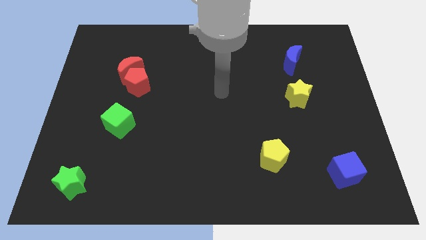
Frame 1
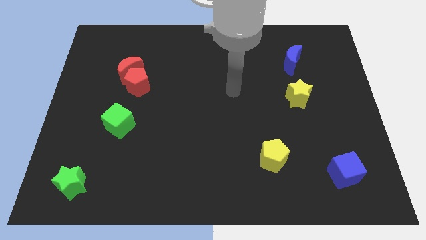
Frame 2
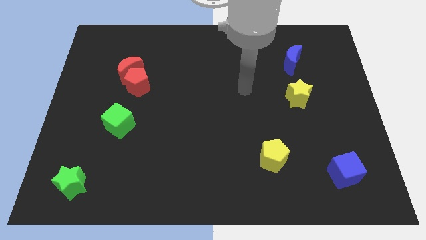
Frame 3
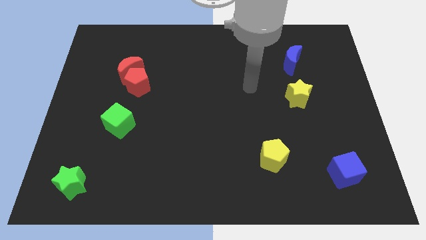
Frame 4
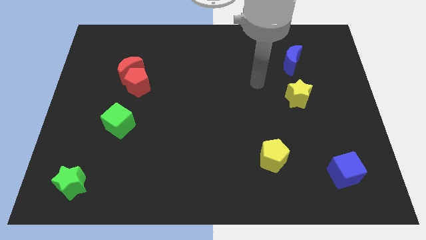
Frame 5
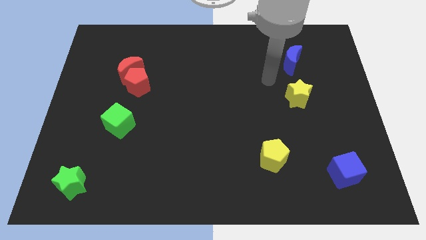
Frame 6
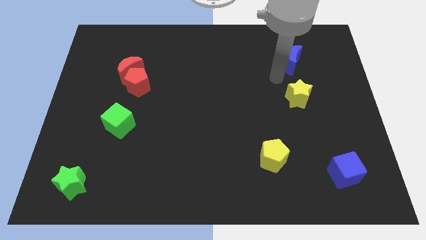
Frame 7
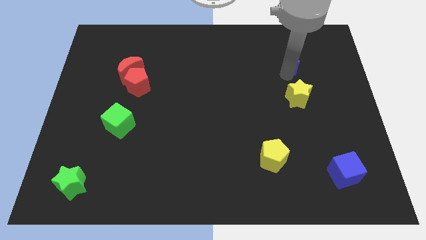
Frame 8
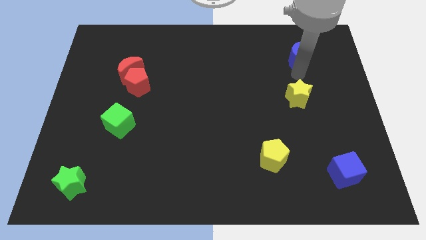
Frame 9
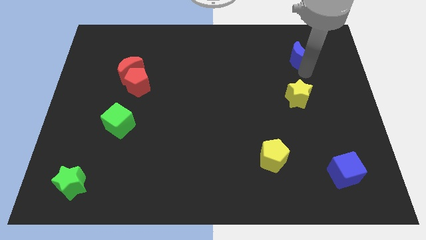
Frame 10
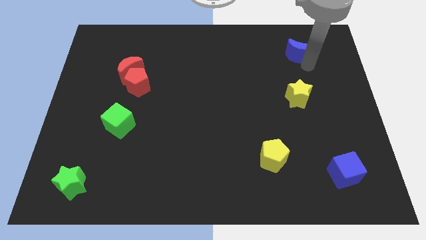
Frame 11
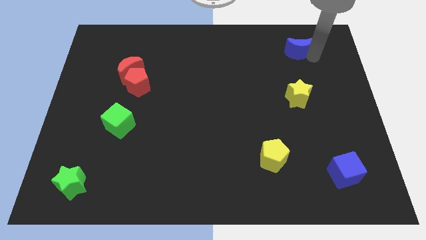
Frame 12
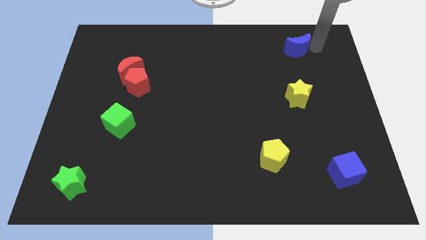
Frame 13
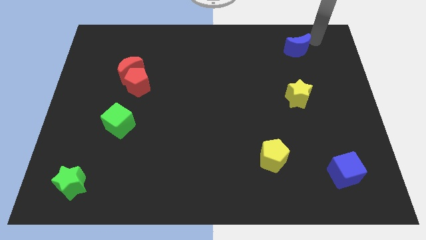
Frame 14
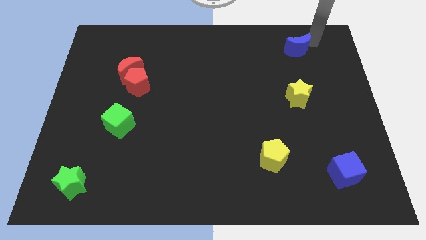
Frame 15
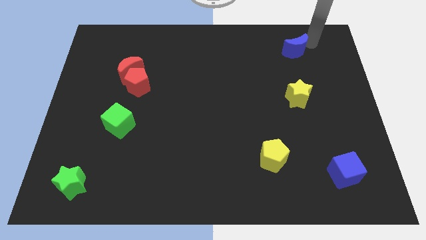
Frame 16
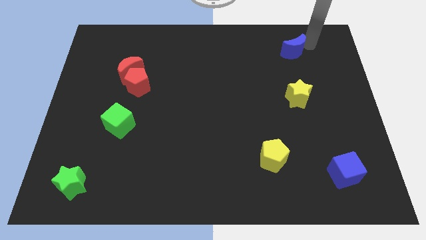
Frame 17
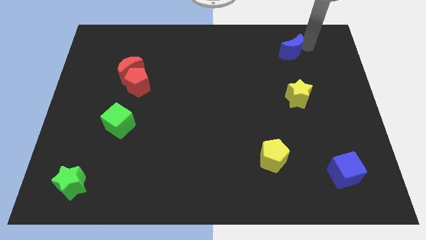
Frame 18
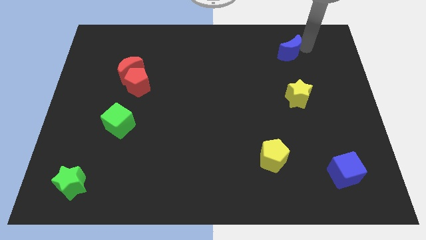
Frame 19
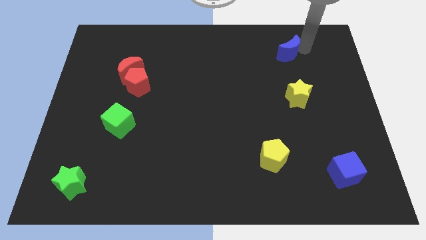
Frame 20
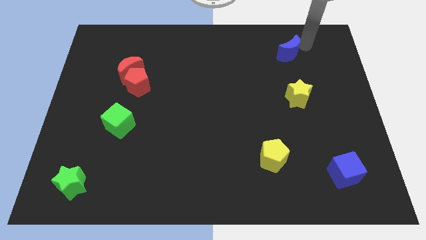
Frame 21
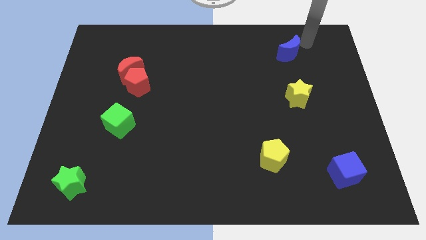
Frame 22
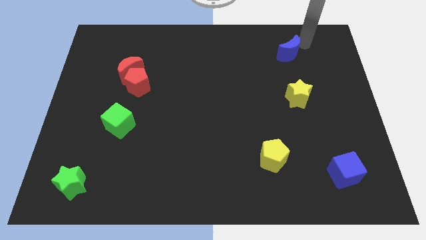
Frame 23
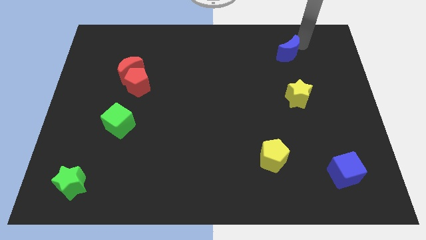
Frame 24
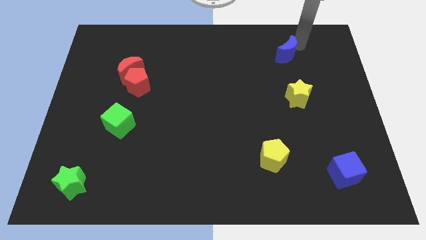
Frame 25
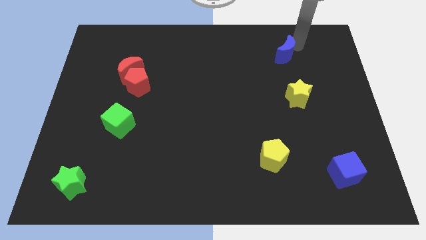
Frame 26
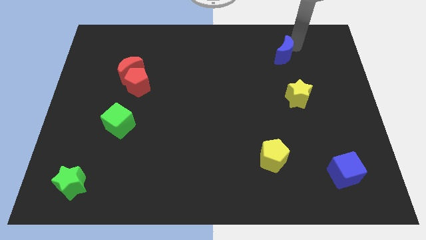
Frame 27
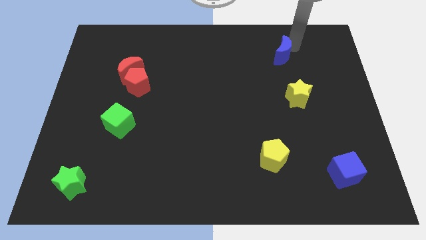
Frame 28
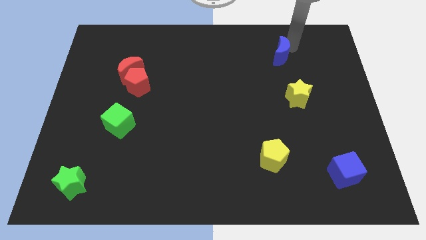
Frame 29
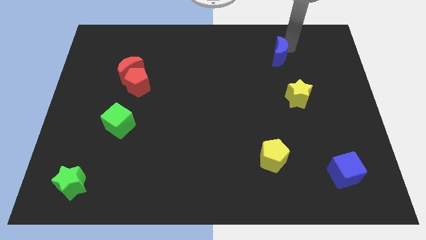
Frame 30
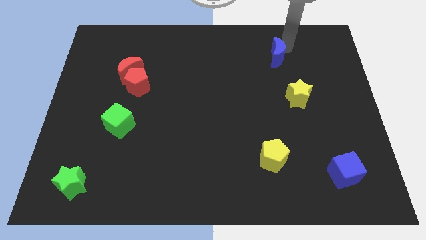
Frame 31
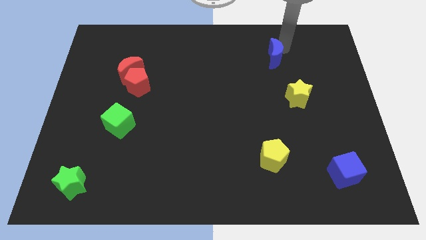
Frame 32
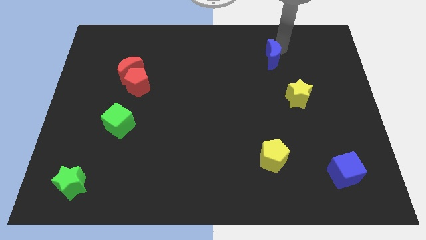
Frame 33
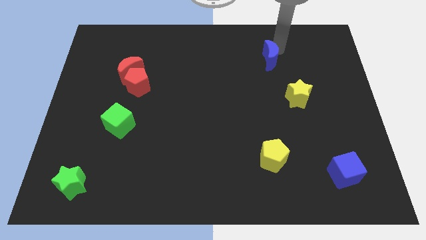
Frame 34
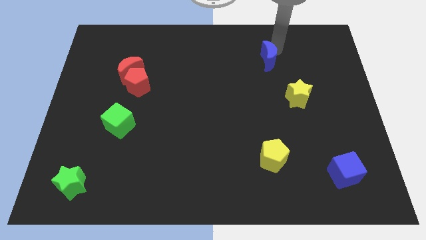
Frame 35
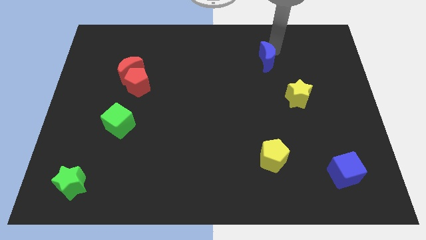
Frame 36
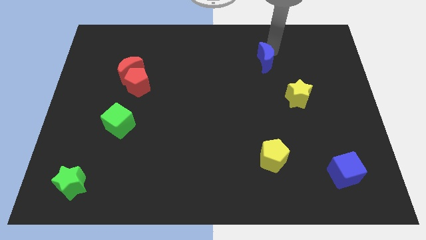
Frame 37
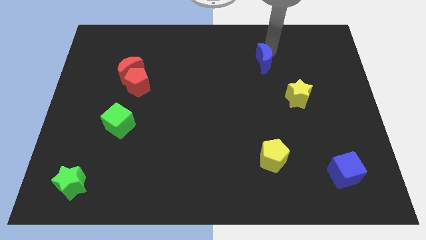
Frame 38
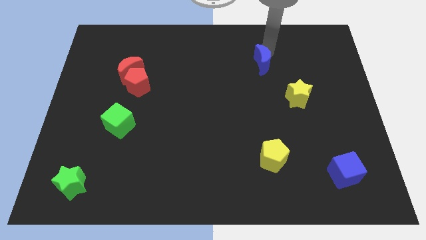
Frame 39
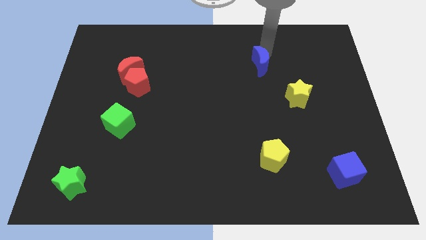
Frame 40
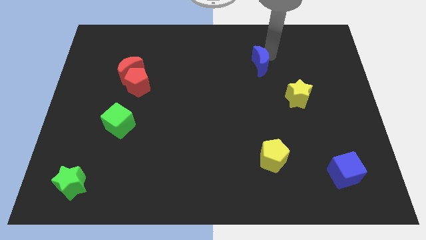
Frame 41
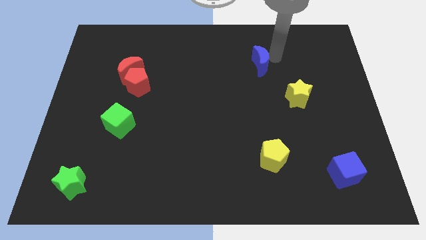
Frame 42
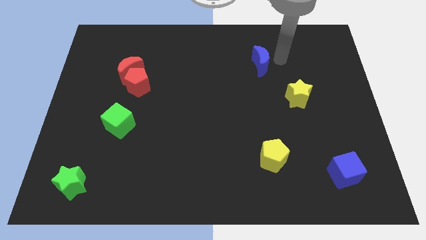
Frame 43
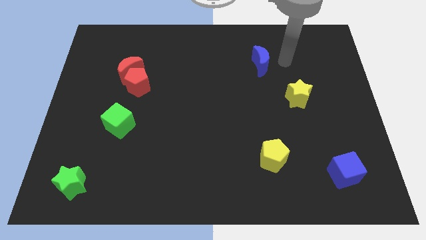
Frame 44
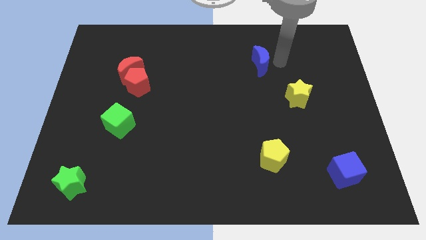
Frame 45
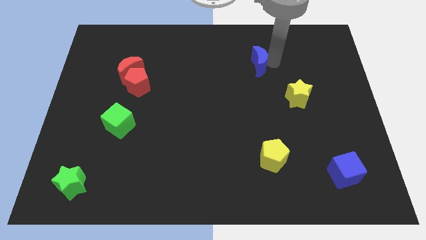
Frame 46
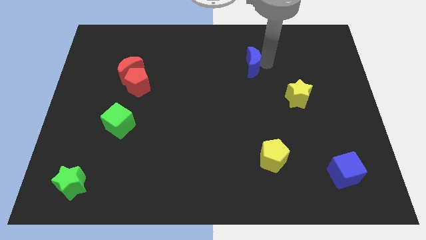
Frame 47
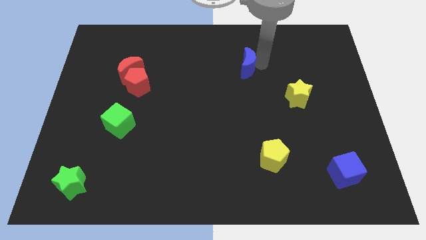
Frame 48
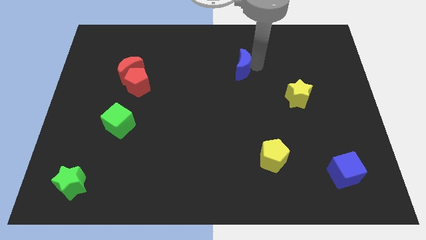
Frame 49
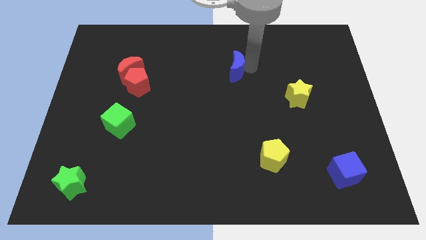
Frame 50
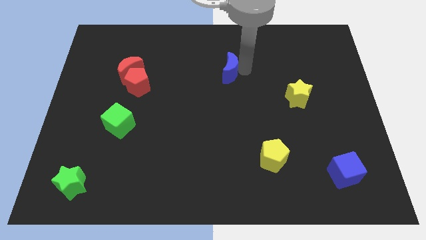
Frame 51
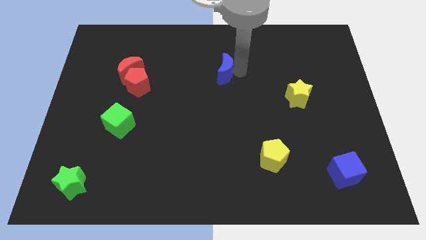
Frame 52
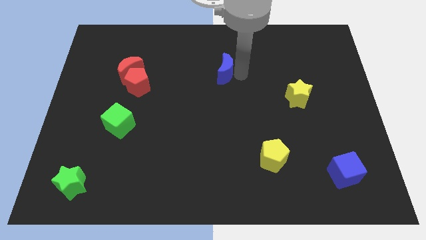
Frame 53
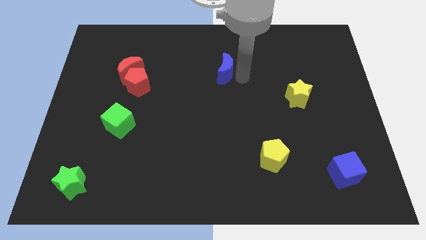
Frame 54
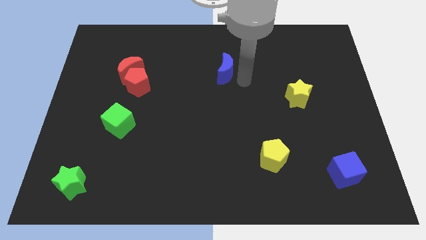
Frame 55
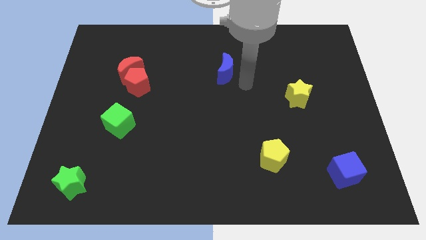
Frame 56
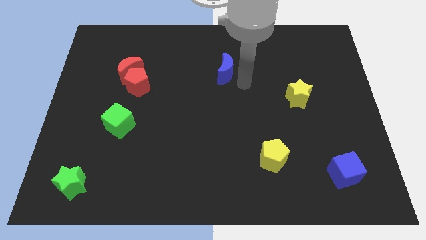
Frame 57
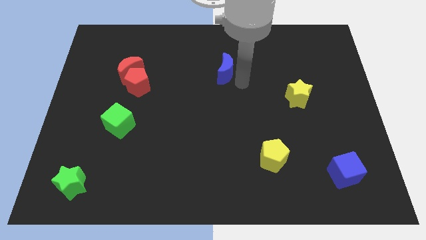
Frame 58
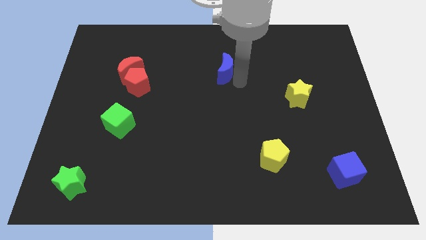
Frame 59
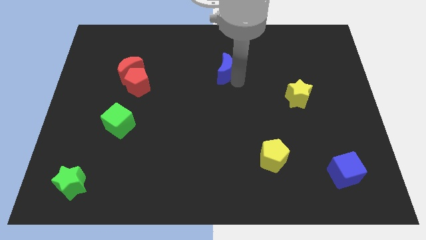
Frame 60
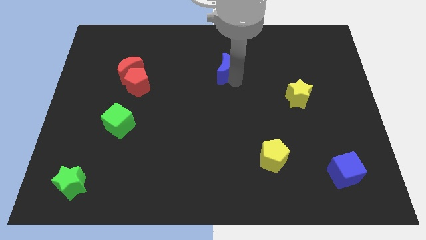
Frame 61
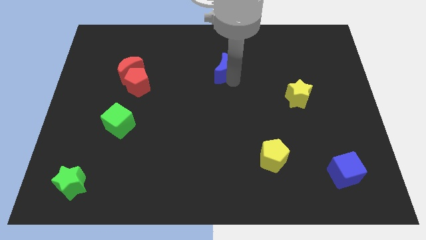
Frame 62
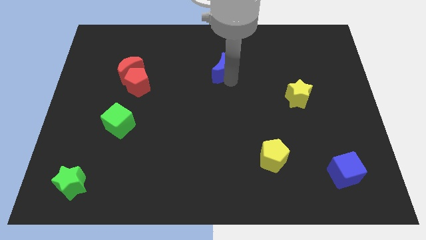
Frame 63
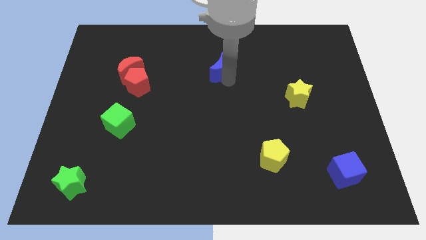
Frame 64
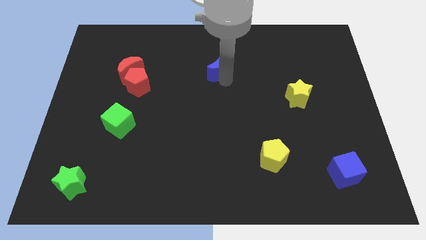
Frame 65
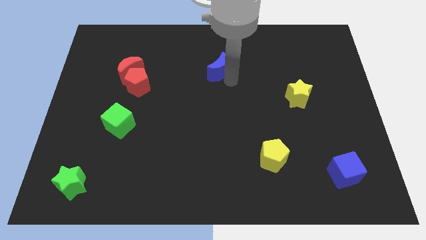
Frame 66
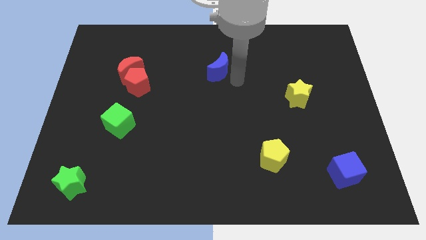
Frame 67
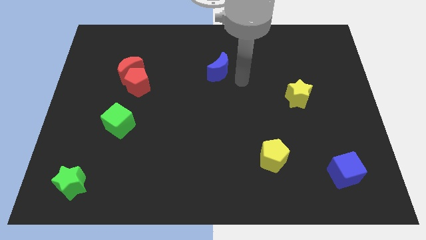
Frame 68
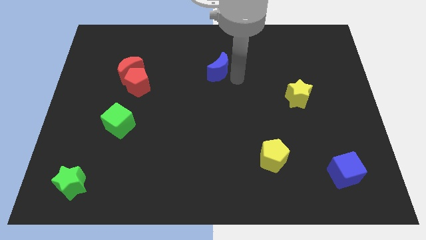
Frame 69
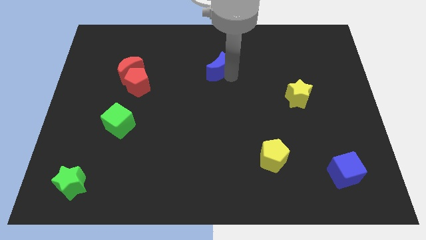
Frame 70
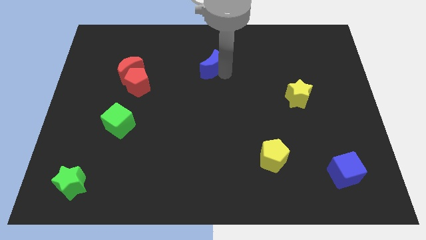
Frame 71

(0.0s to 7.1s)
move the blue moon to the left

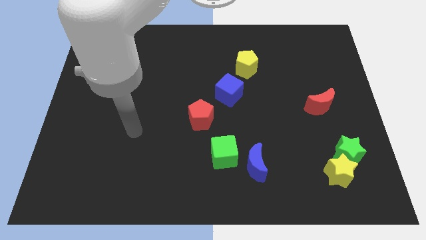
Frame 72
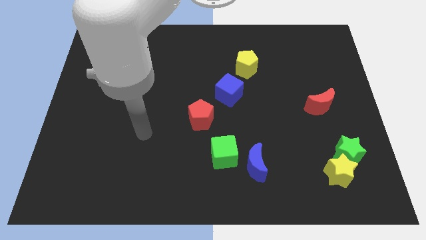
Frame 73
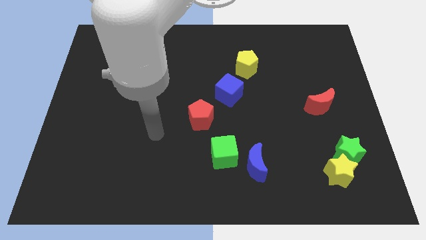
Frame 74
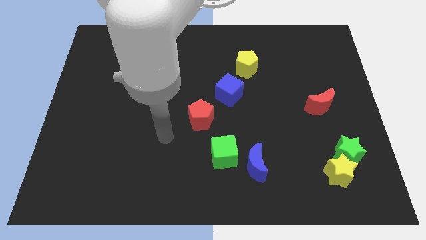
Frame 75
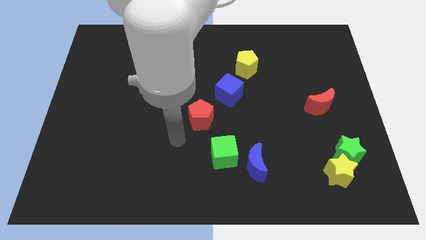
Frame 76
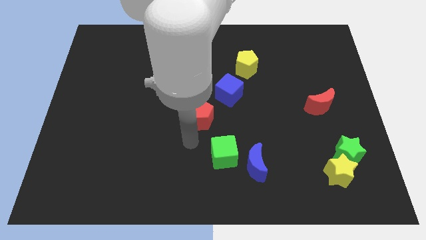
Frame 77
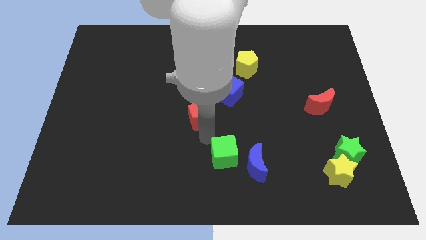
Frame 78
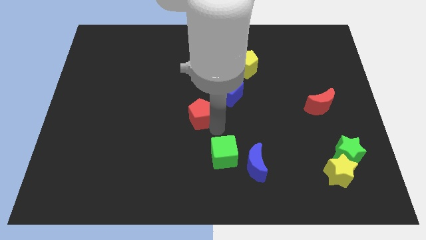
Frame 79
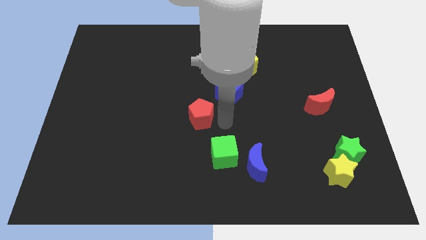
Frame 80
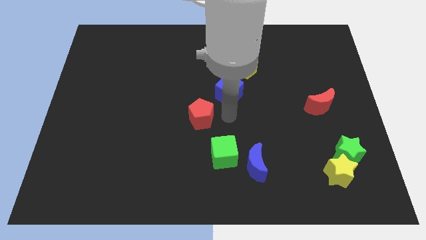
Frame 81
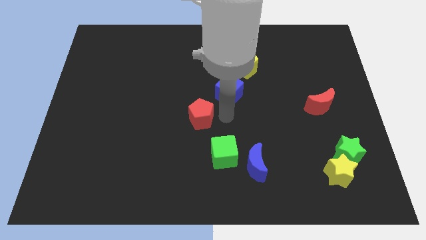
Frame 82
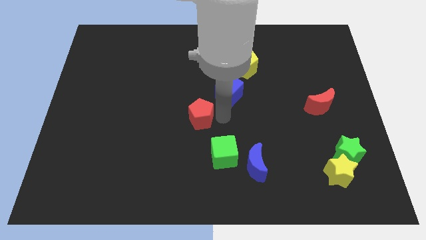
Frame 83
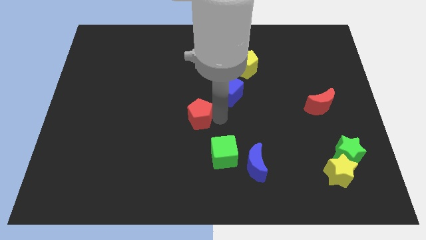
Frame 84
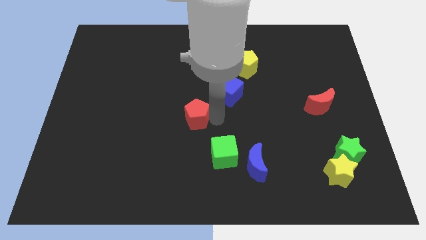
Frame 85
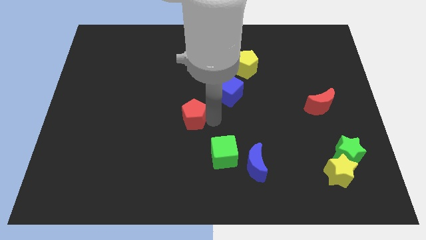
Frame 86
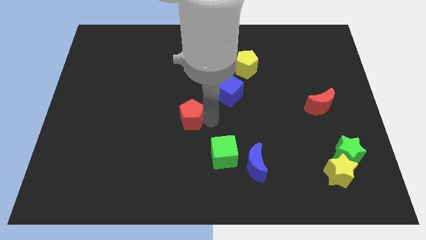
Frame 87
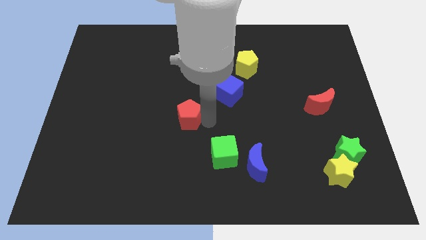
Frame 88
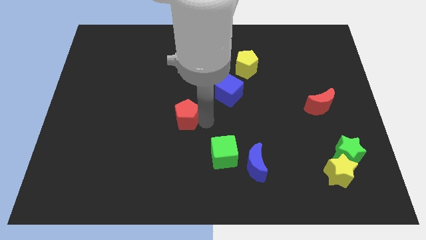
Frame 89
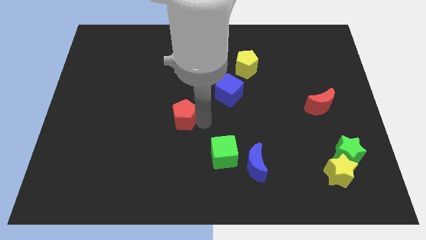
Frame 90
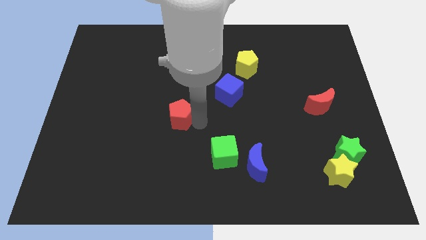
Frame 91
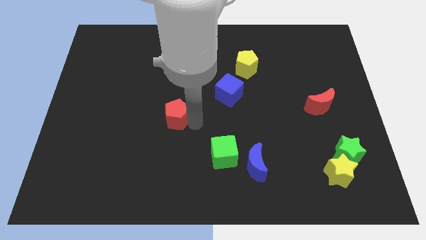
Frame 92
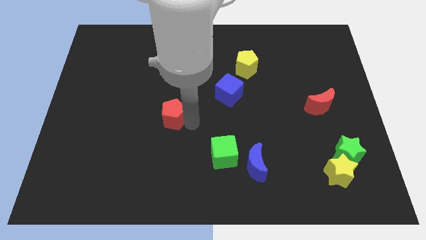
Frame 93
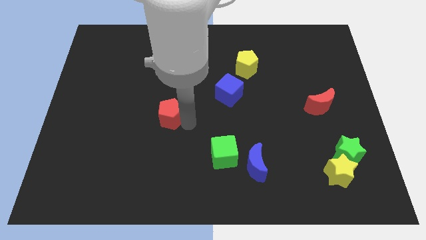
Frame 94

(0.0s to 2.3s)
slide the red pentagon a bit to the left
